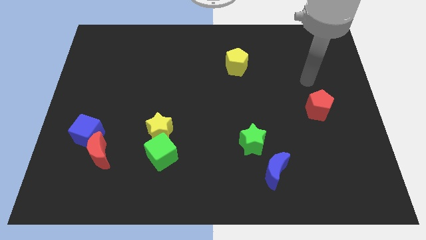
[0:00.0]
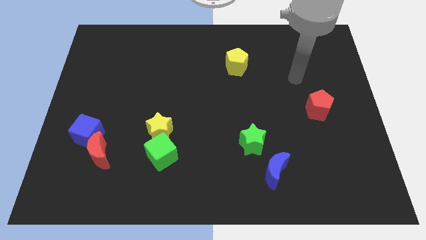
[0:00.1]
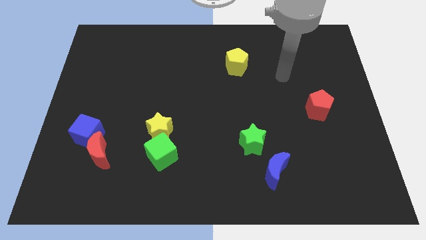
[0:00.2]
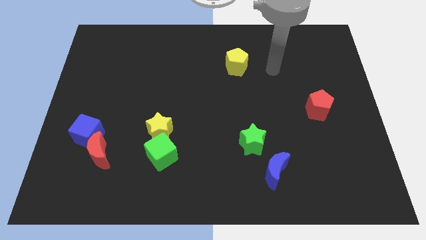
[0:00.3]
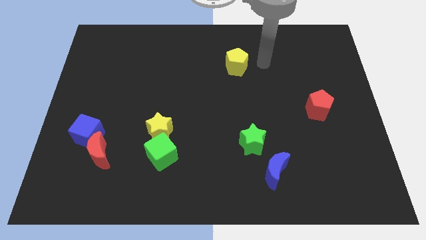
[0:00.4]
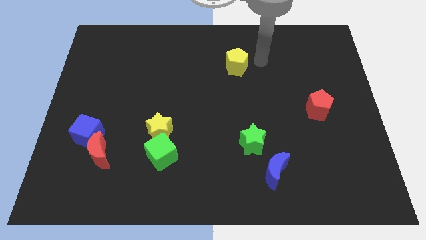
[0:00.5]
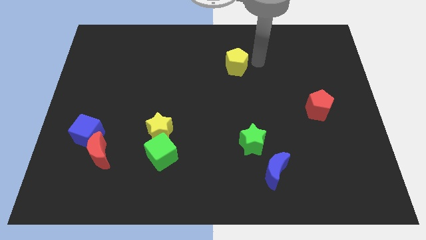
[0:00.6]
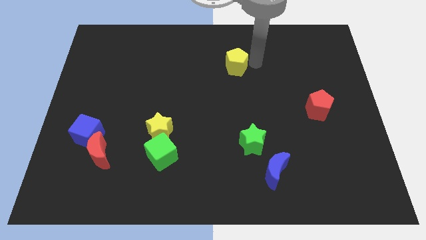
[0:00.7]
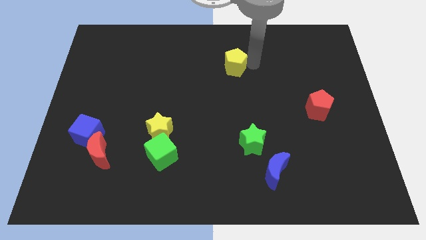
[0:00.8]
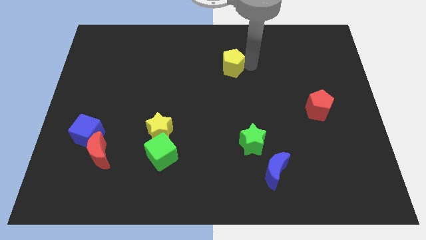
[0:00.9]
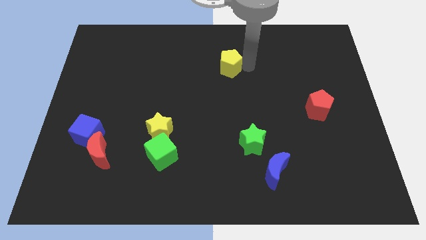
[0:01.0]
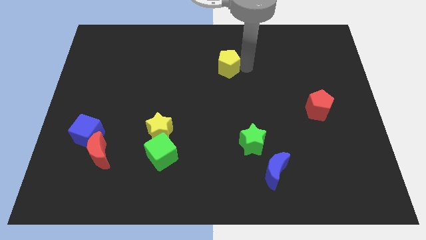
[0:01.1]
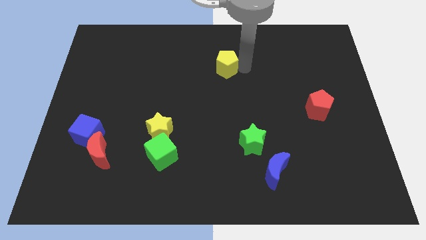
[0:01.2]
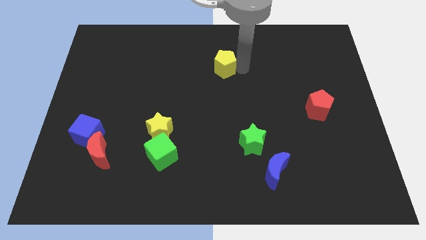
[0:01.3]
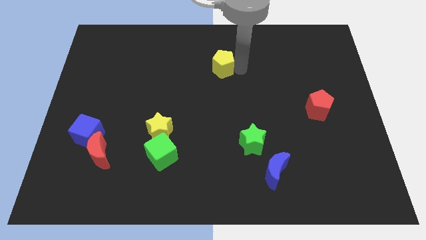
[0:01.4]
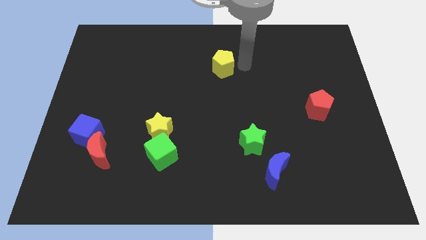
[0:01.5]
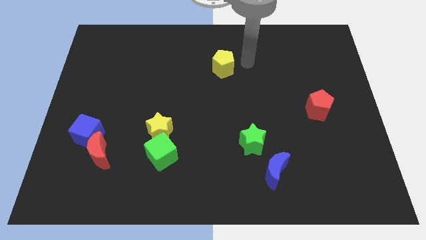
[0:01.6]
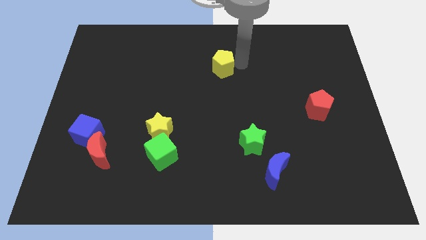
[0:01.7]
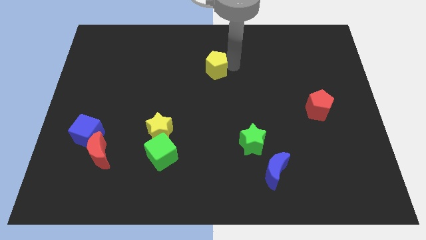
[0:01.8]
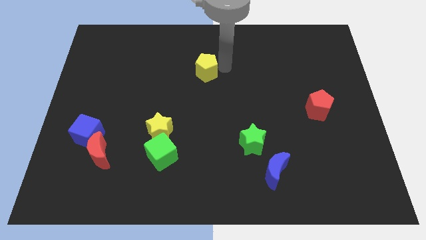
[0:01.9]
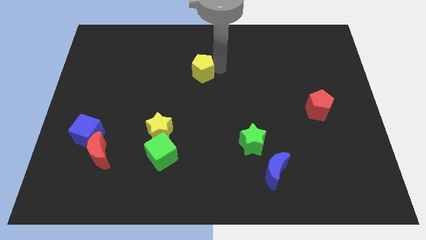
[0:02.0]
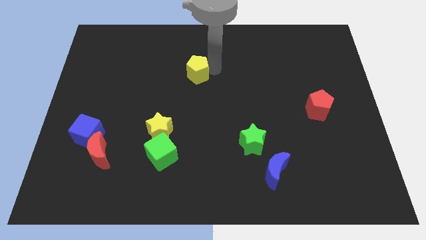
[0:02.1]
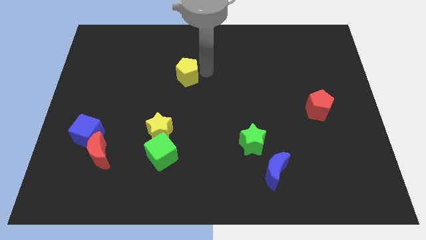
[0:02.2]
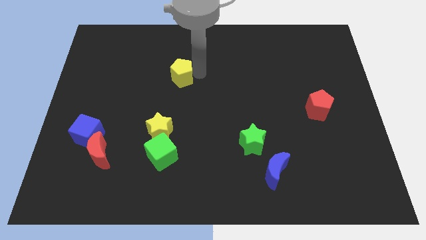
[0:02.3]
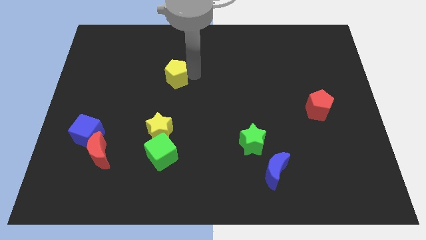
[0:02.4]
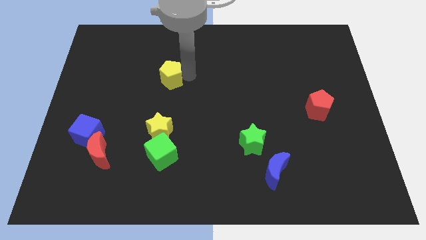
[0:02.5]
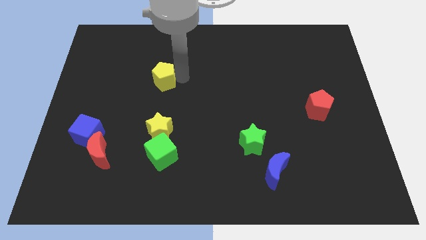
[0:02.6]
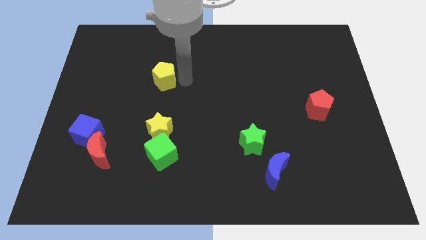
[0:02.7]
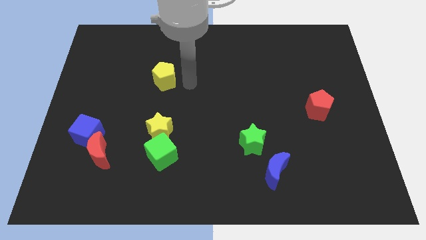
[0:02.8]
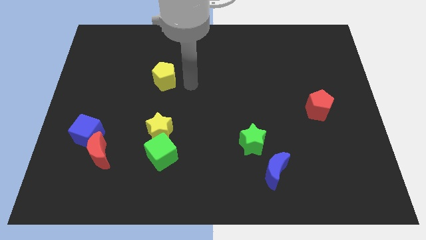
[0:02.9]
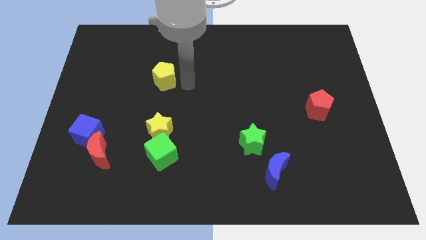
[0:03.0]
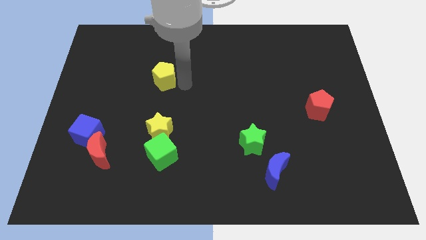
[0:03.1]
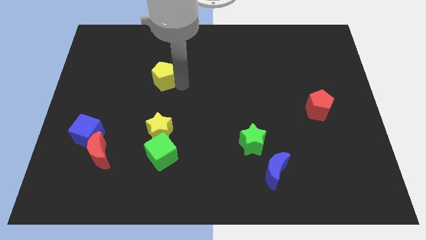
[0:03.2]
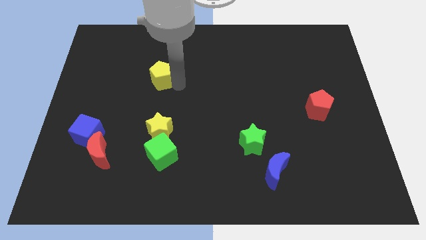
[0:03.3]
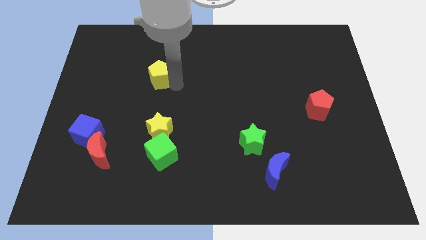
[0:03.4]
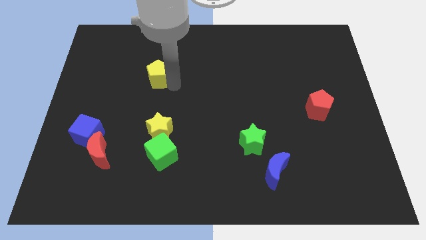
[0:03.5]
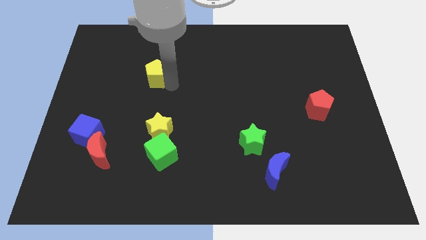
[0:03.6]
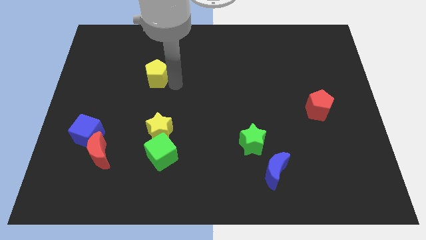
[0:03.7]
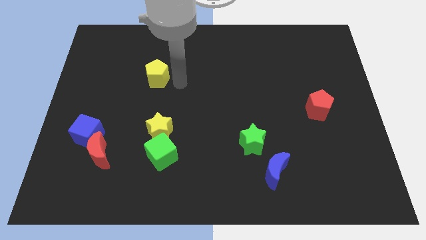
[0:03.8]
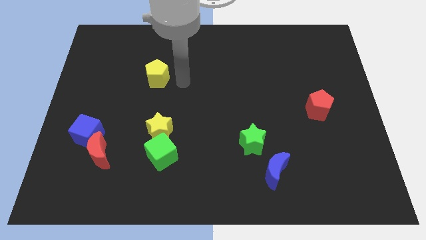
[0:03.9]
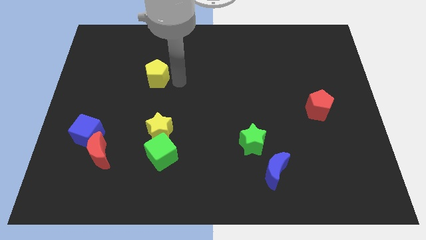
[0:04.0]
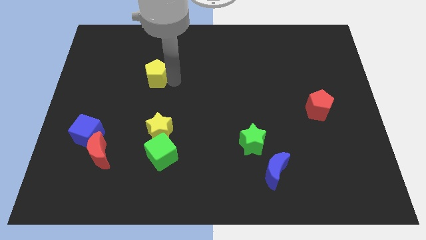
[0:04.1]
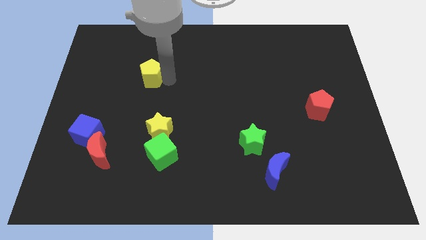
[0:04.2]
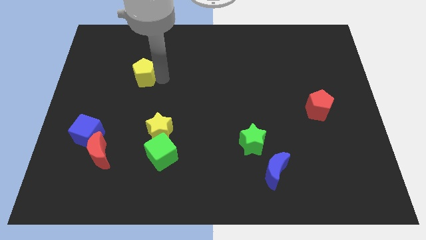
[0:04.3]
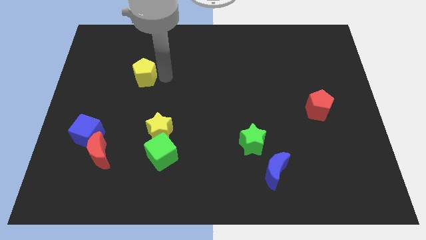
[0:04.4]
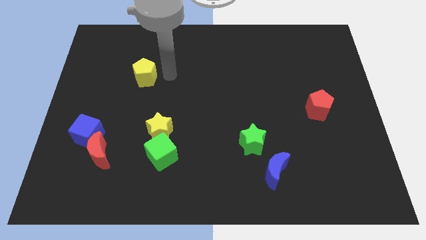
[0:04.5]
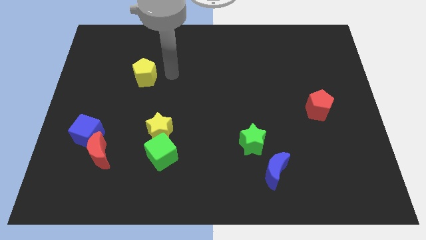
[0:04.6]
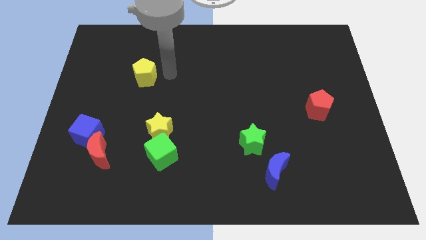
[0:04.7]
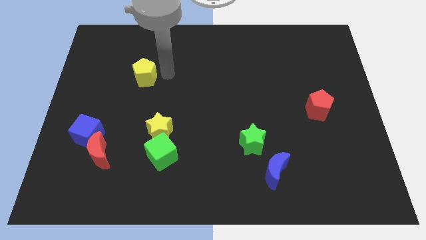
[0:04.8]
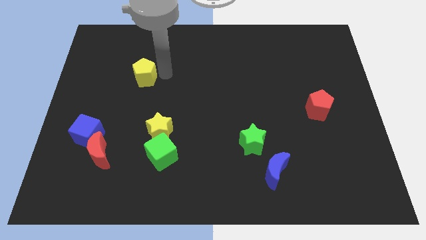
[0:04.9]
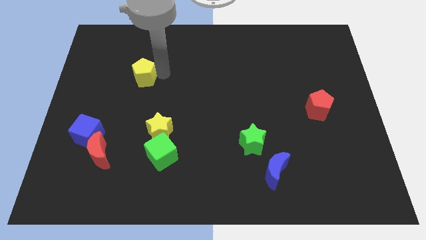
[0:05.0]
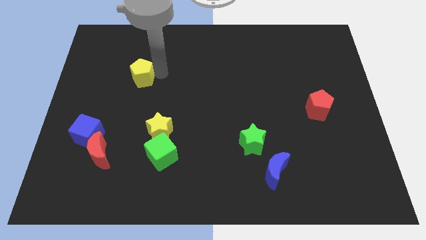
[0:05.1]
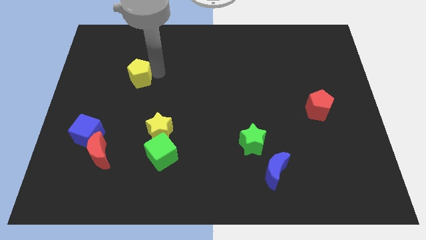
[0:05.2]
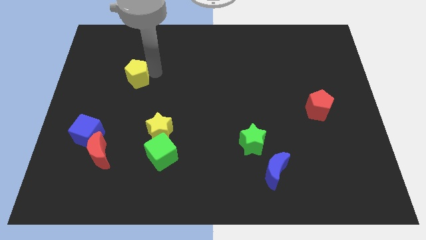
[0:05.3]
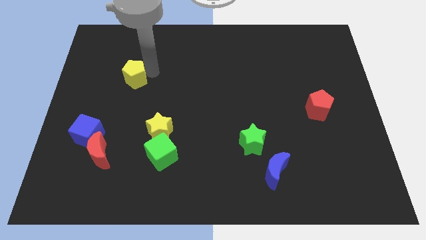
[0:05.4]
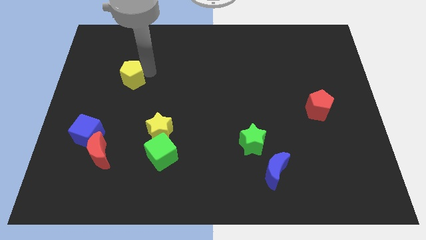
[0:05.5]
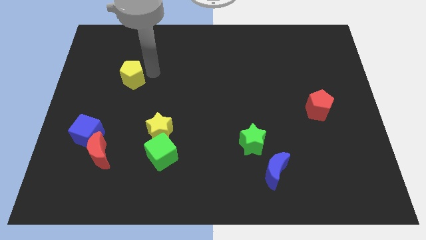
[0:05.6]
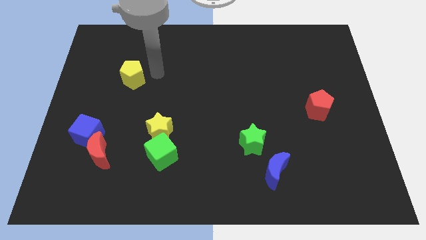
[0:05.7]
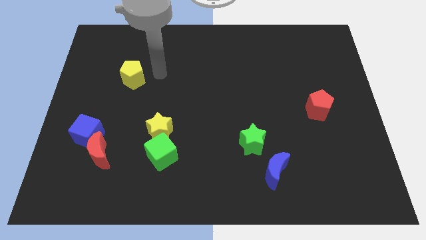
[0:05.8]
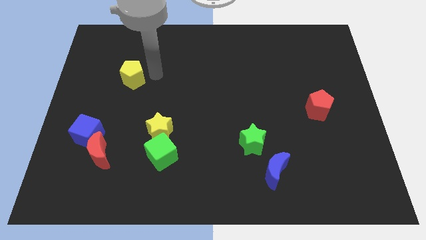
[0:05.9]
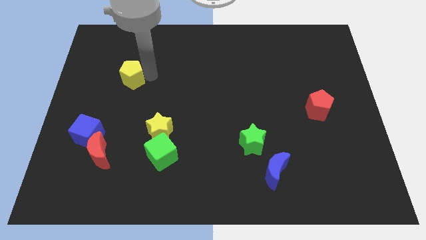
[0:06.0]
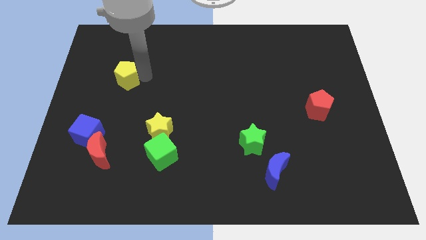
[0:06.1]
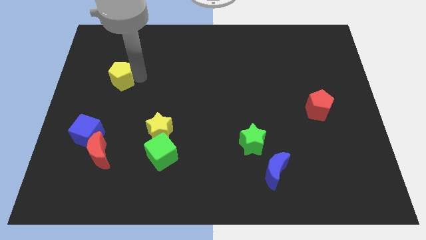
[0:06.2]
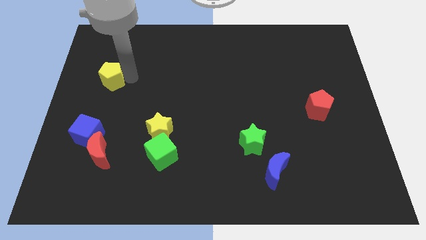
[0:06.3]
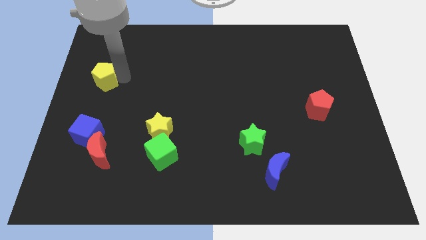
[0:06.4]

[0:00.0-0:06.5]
push the yellow pentagon to the left side of the board
